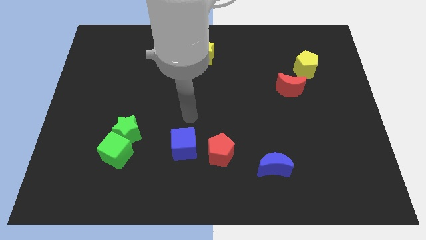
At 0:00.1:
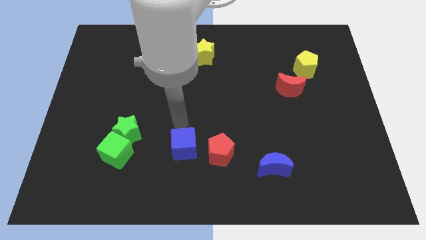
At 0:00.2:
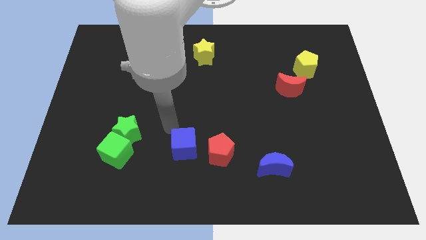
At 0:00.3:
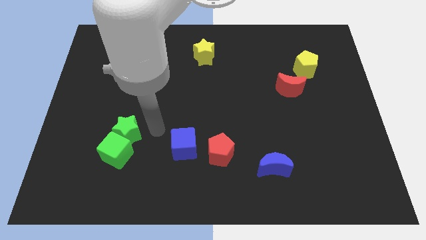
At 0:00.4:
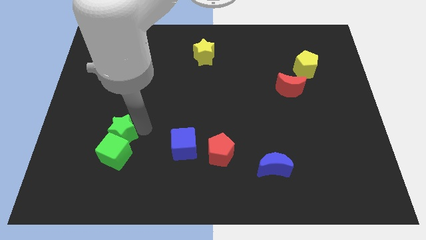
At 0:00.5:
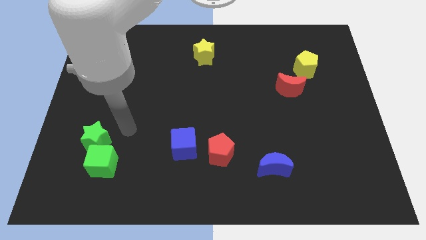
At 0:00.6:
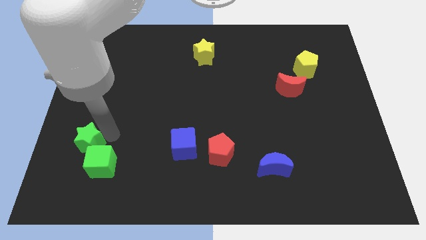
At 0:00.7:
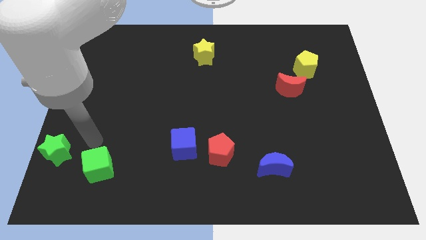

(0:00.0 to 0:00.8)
separate the green cube from the green star

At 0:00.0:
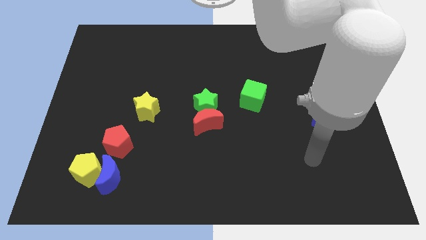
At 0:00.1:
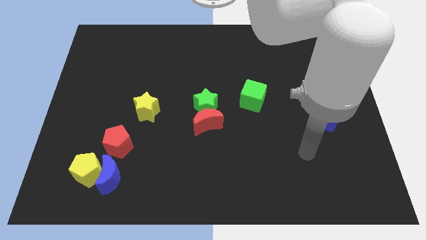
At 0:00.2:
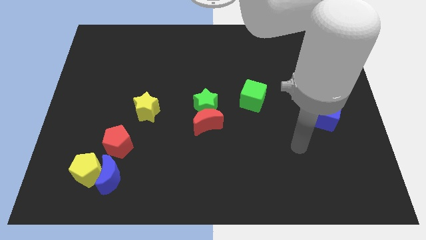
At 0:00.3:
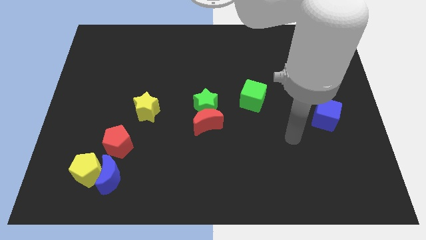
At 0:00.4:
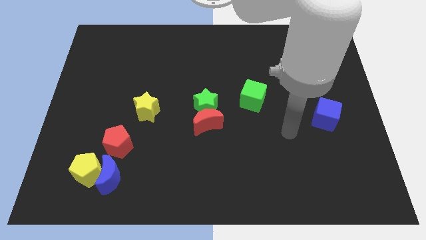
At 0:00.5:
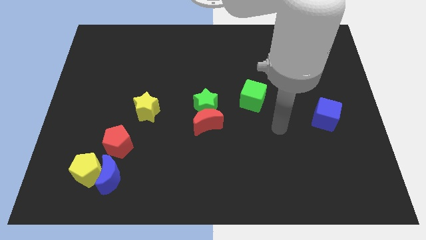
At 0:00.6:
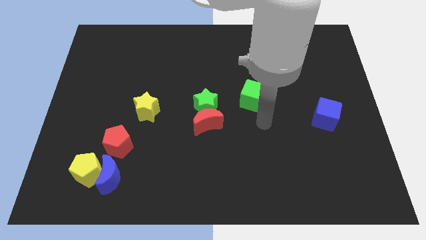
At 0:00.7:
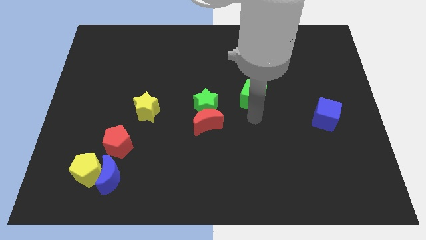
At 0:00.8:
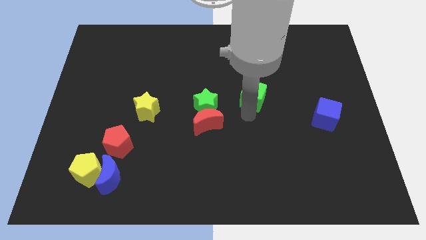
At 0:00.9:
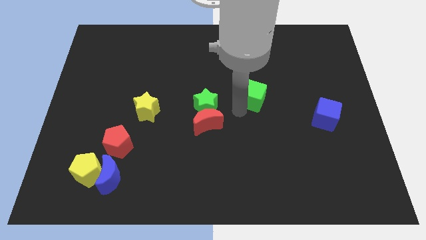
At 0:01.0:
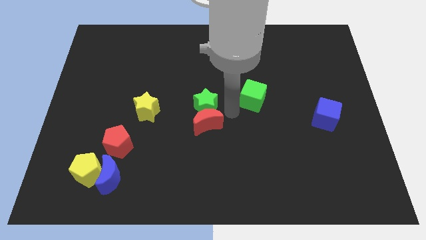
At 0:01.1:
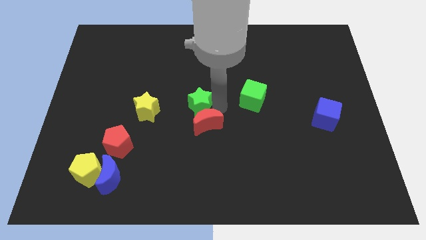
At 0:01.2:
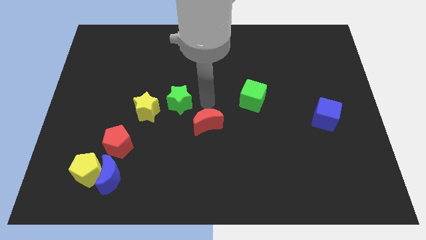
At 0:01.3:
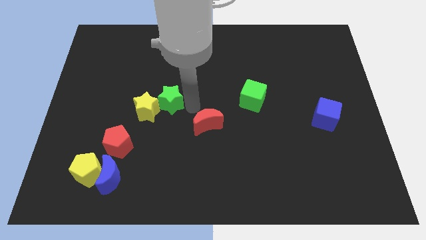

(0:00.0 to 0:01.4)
move the red moon away from the green star

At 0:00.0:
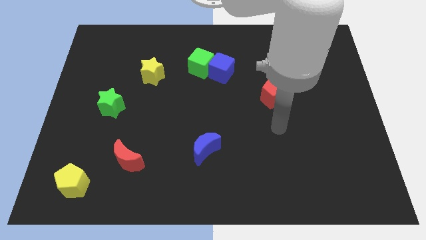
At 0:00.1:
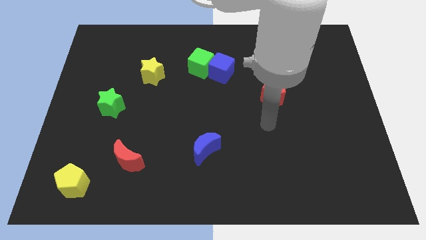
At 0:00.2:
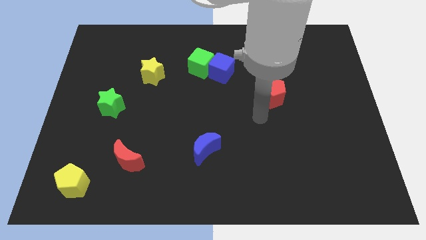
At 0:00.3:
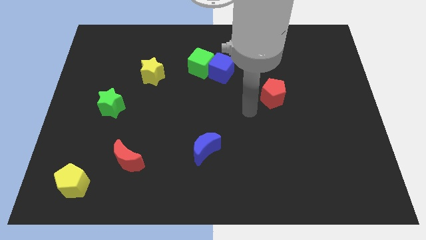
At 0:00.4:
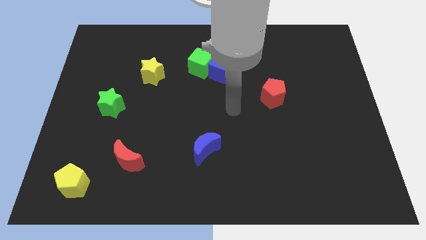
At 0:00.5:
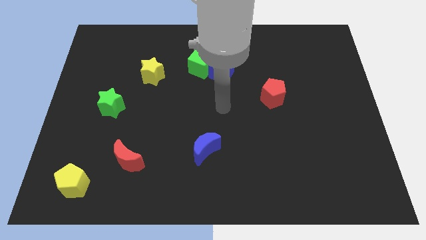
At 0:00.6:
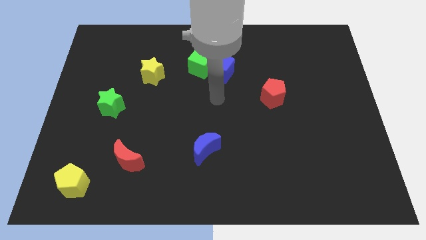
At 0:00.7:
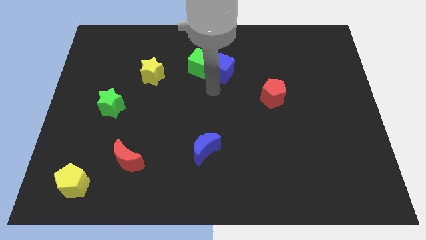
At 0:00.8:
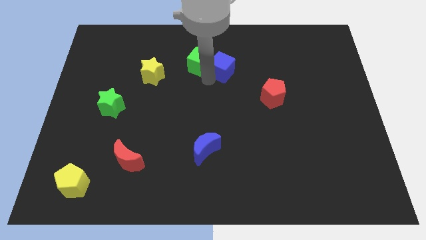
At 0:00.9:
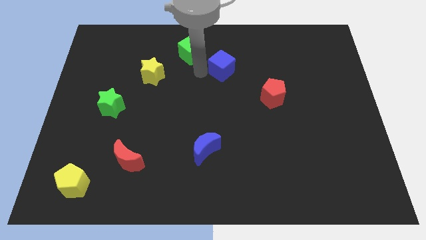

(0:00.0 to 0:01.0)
move the blue cube away from the green cube

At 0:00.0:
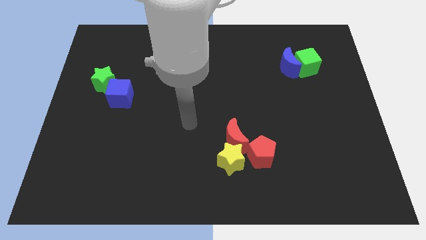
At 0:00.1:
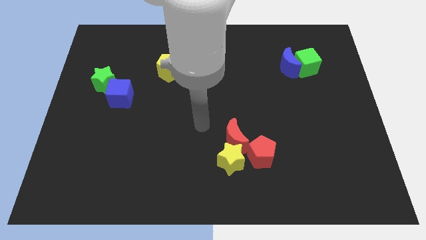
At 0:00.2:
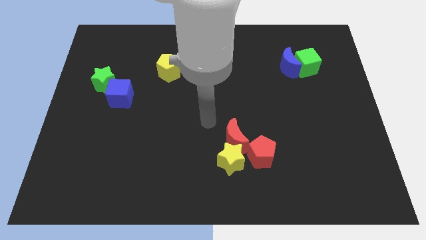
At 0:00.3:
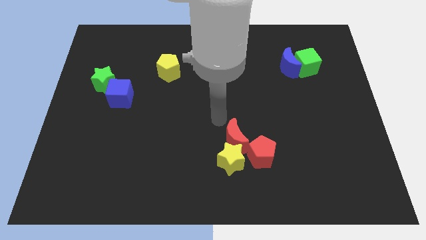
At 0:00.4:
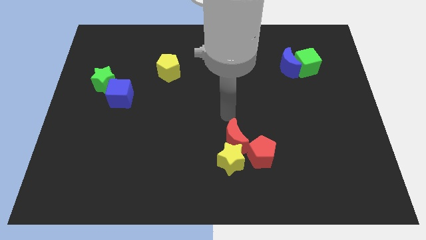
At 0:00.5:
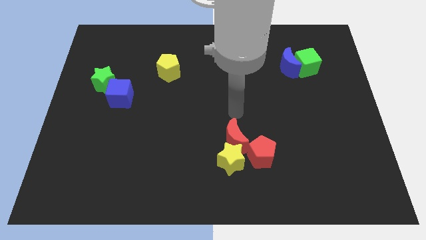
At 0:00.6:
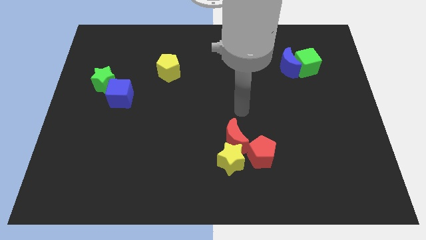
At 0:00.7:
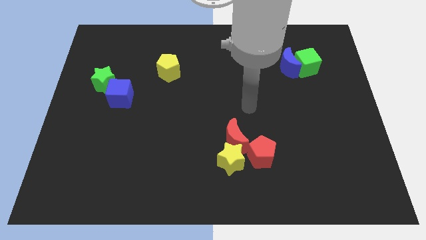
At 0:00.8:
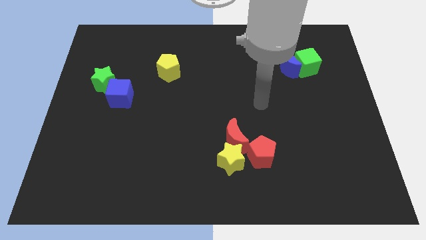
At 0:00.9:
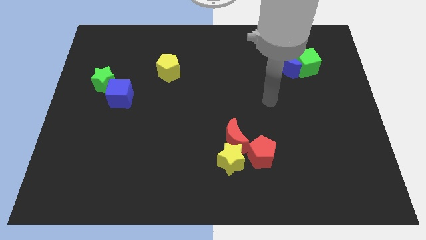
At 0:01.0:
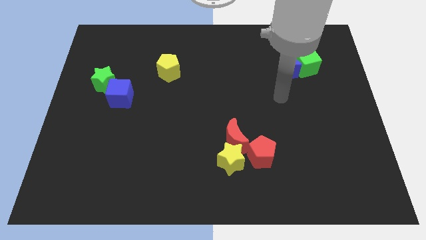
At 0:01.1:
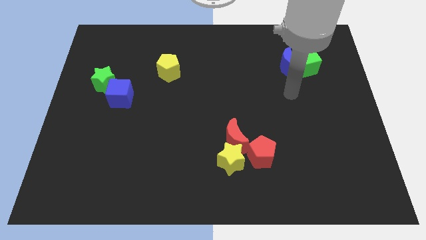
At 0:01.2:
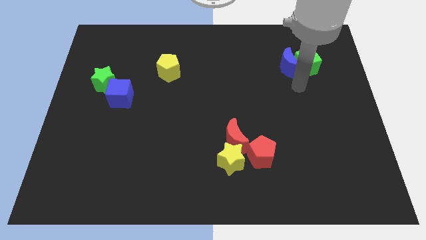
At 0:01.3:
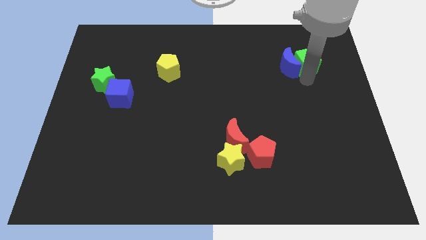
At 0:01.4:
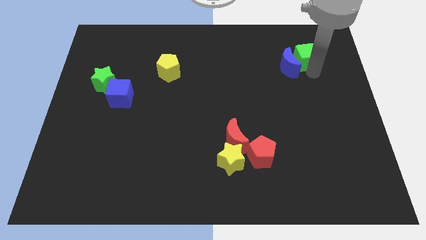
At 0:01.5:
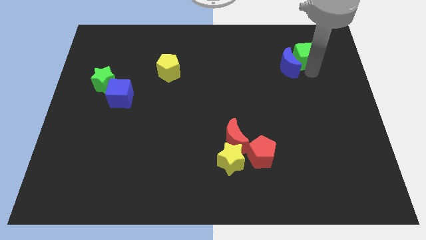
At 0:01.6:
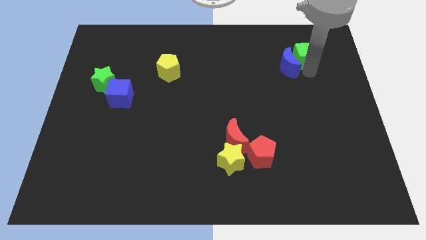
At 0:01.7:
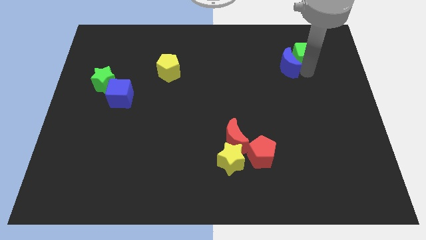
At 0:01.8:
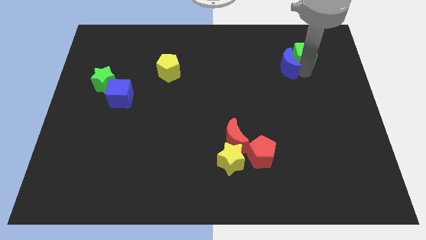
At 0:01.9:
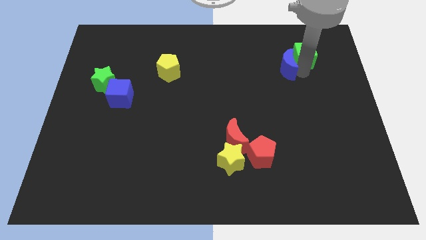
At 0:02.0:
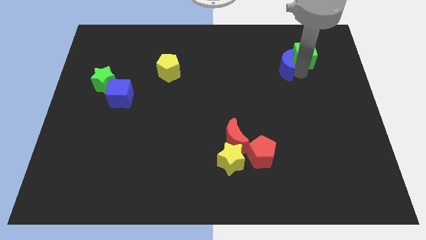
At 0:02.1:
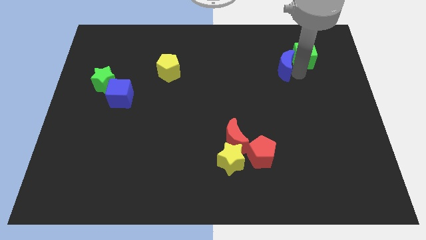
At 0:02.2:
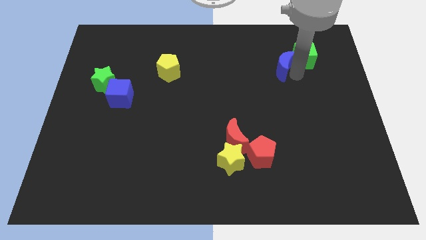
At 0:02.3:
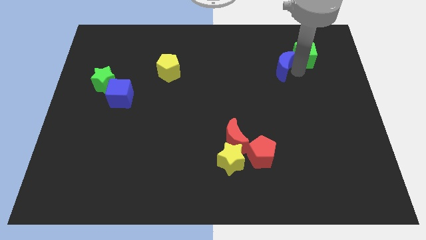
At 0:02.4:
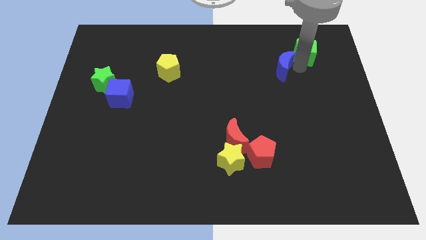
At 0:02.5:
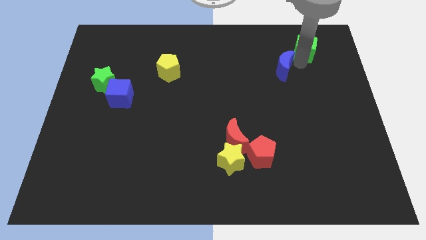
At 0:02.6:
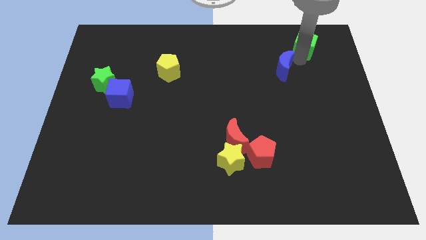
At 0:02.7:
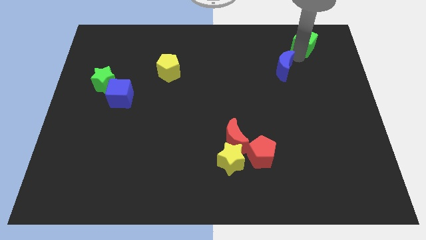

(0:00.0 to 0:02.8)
pull the blue moon apart from the green cube

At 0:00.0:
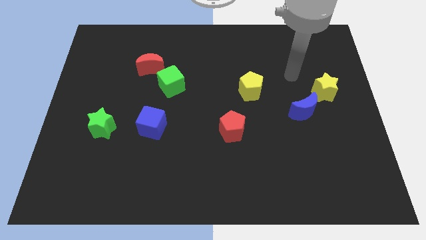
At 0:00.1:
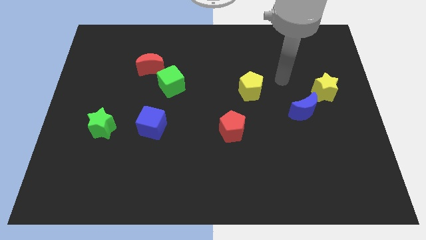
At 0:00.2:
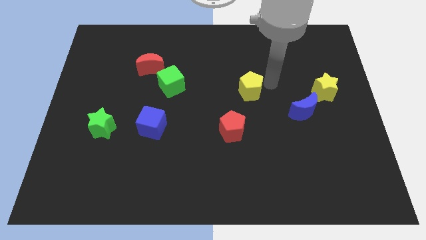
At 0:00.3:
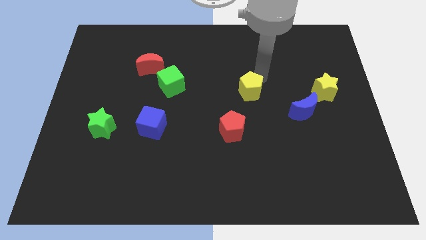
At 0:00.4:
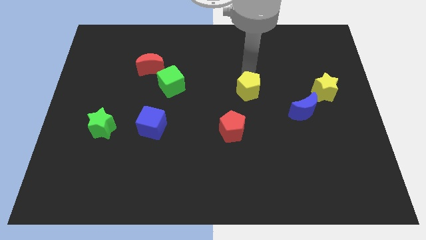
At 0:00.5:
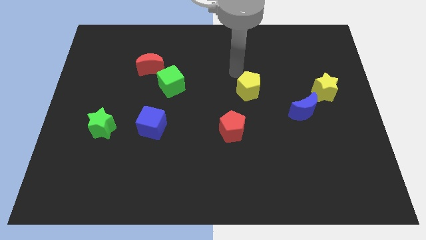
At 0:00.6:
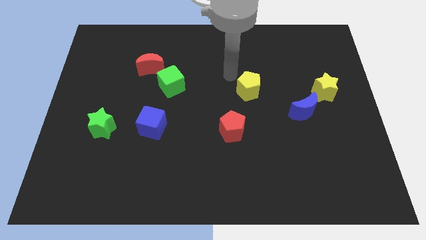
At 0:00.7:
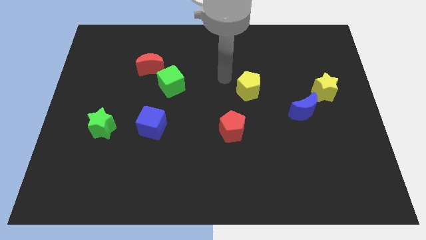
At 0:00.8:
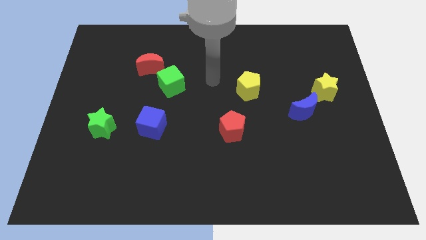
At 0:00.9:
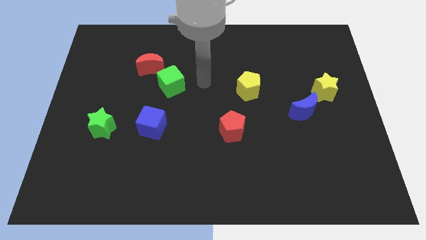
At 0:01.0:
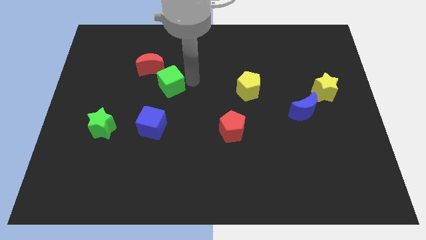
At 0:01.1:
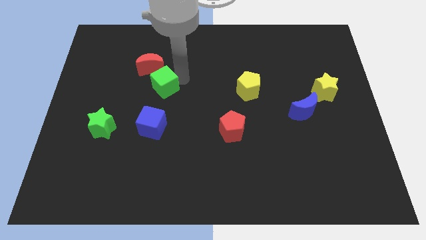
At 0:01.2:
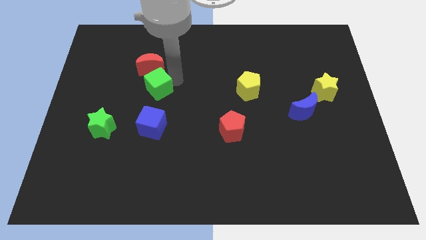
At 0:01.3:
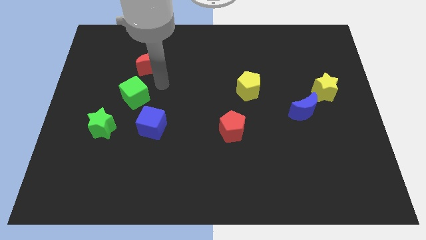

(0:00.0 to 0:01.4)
separate the red moon from the green cube

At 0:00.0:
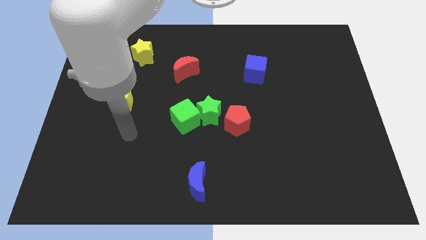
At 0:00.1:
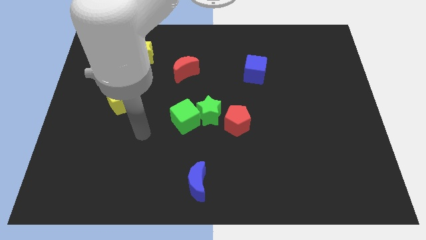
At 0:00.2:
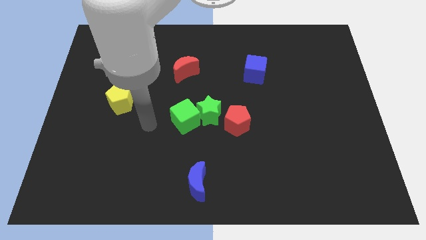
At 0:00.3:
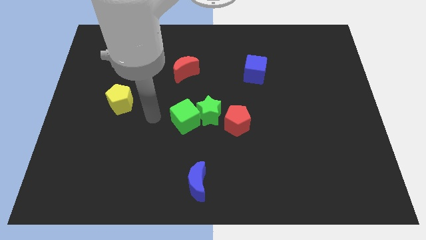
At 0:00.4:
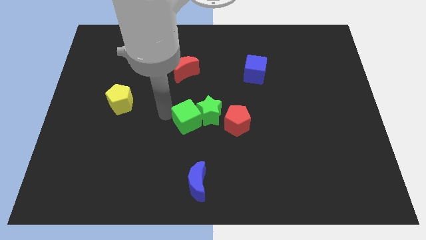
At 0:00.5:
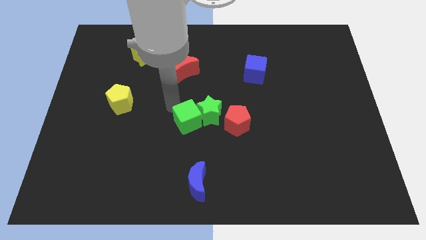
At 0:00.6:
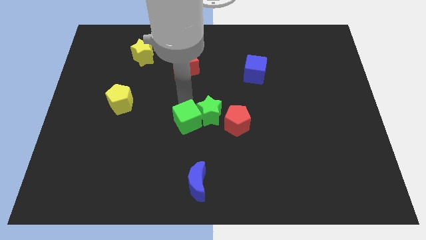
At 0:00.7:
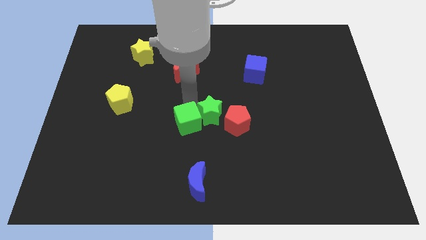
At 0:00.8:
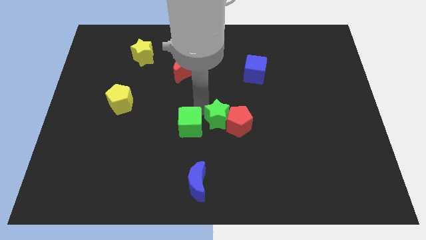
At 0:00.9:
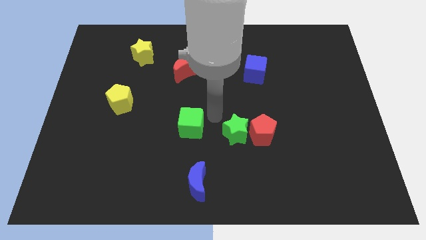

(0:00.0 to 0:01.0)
move the green cube away from the green star

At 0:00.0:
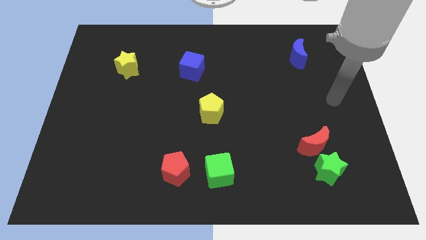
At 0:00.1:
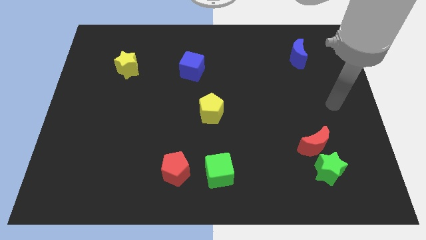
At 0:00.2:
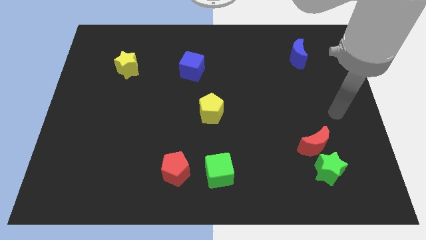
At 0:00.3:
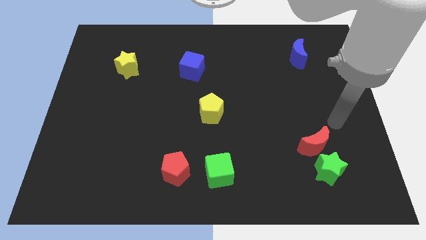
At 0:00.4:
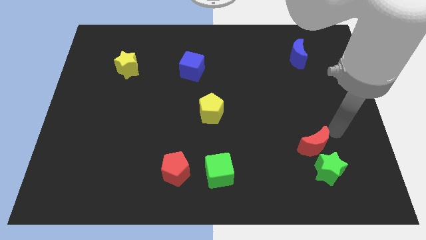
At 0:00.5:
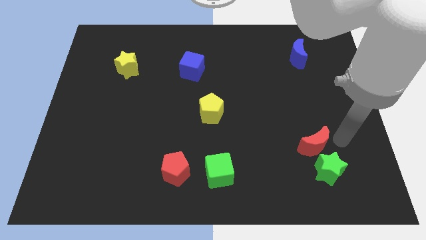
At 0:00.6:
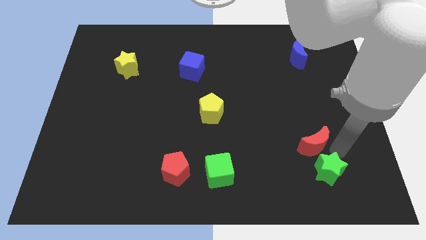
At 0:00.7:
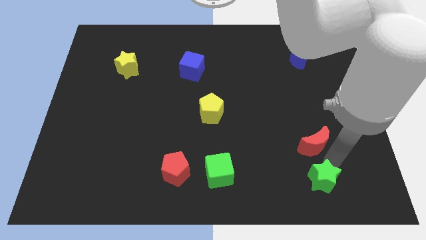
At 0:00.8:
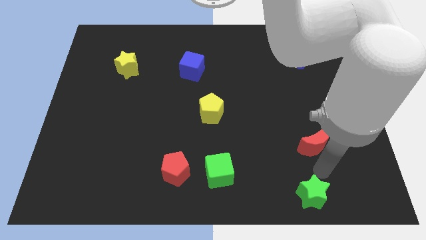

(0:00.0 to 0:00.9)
pull the red moon apart from the green star
